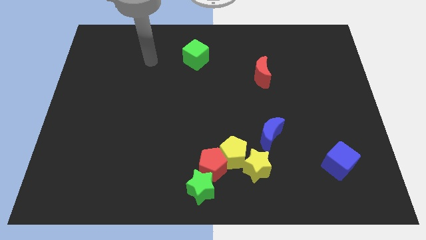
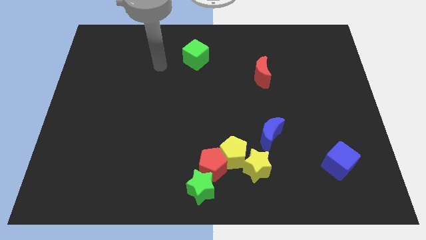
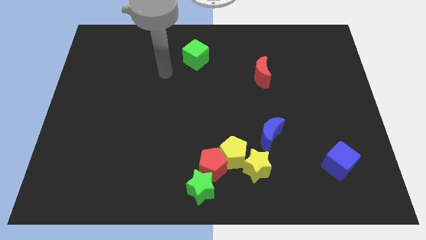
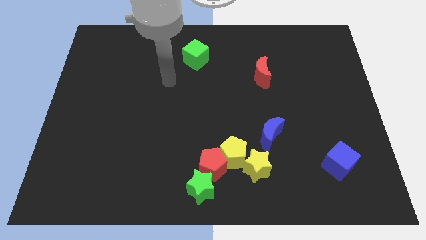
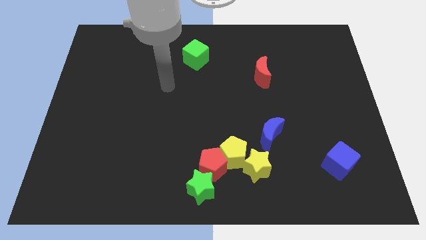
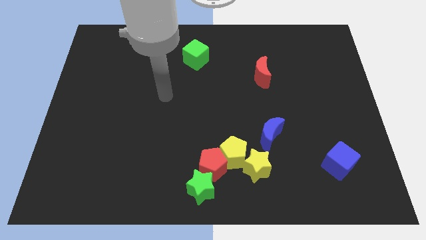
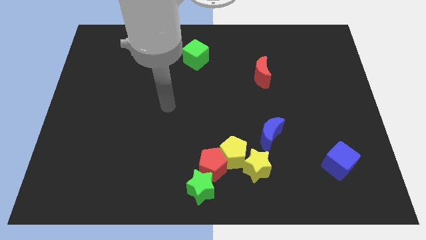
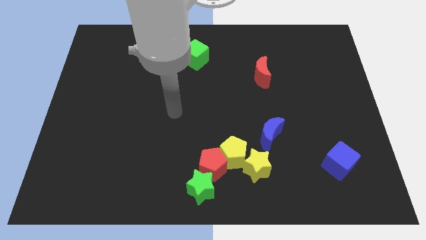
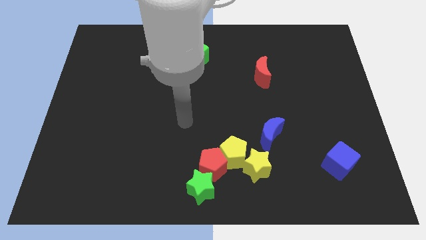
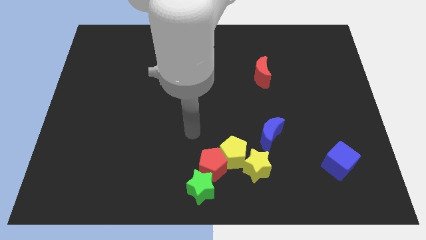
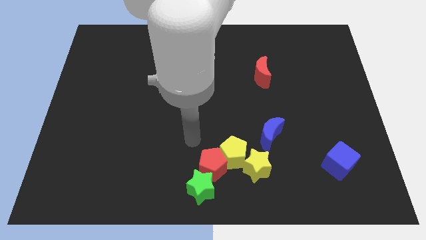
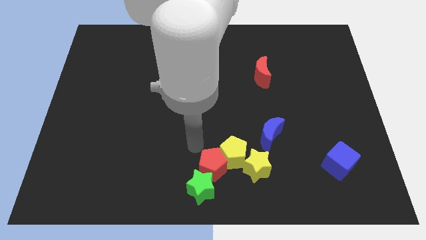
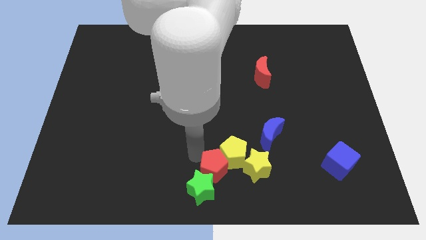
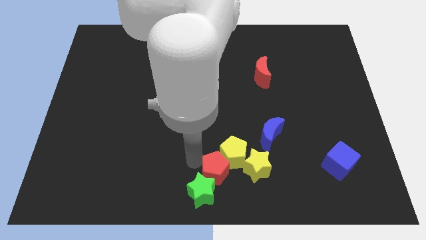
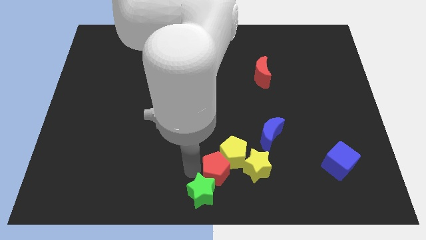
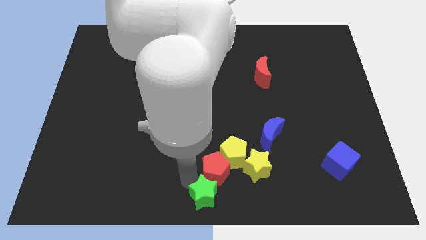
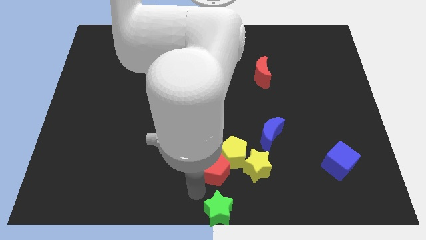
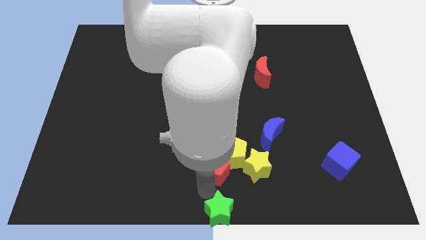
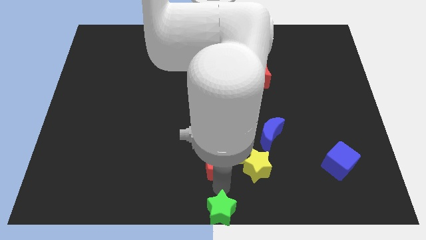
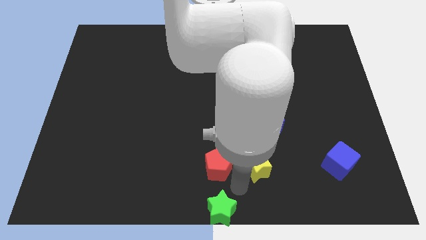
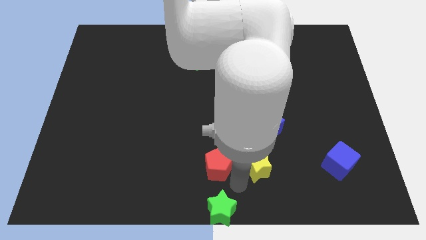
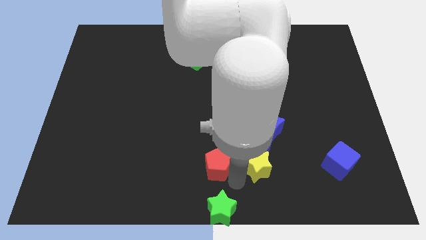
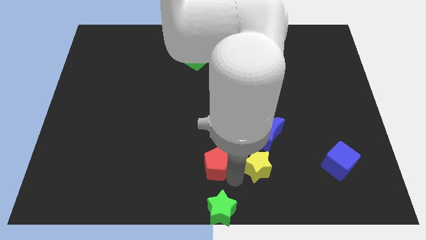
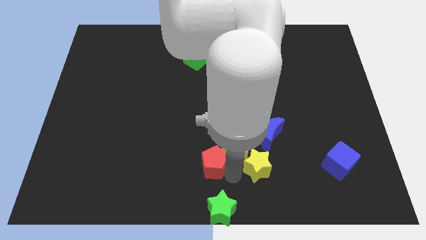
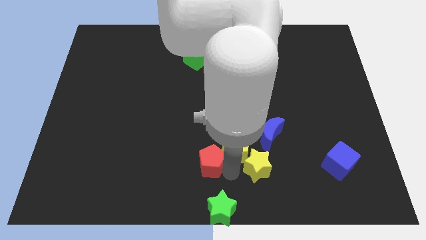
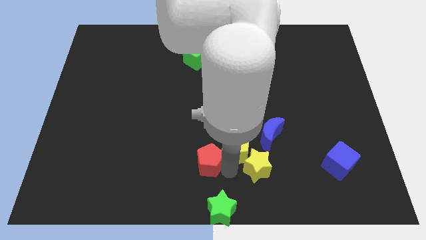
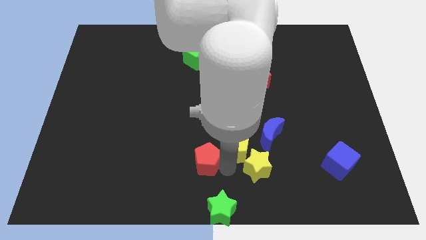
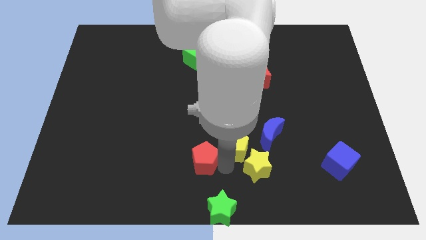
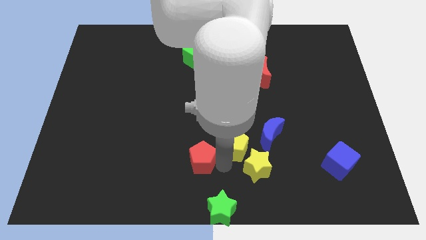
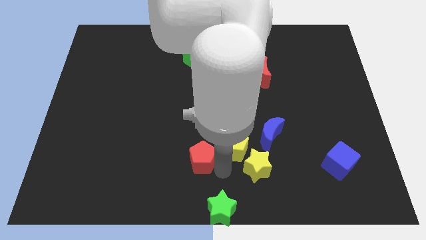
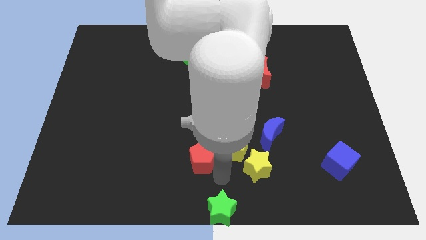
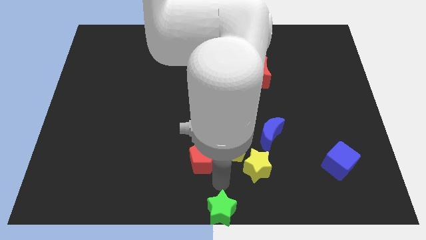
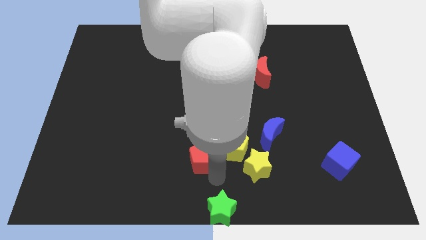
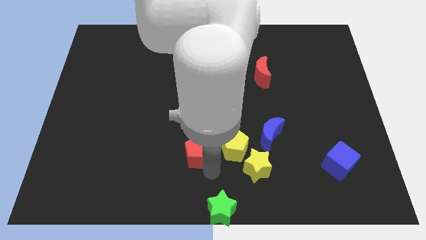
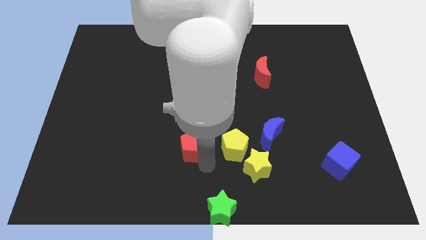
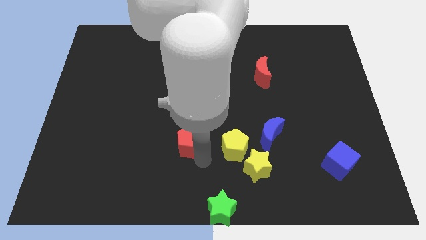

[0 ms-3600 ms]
slightly push the red pentagon up and to the left

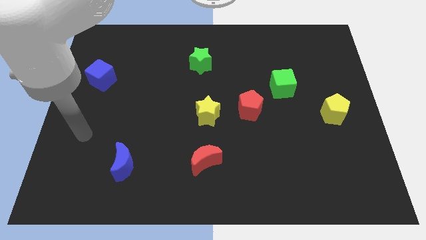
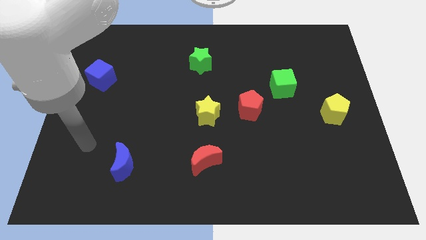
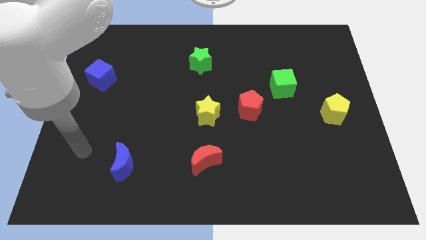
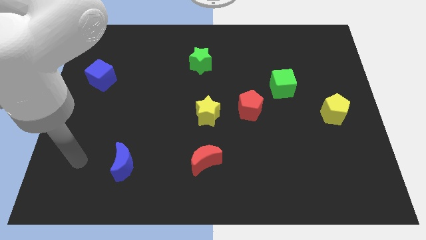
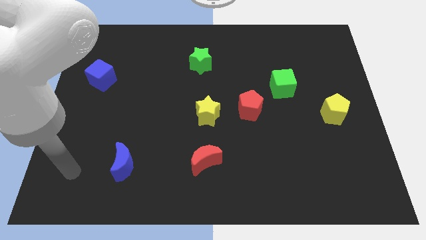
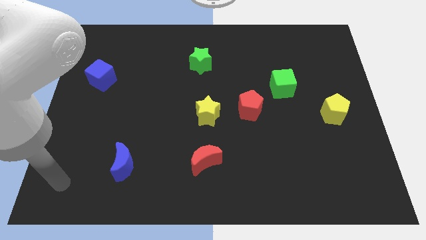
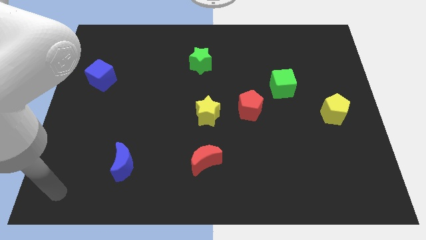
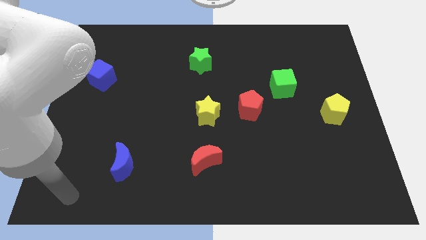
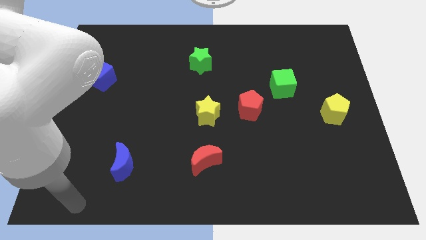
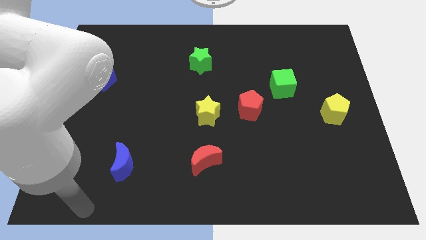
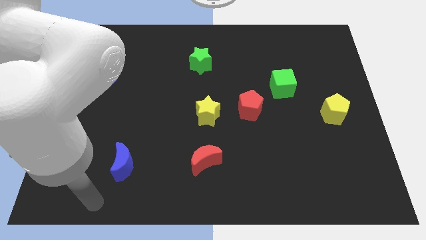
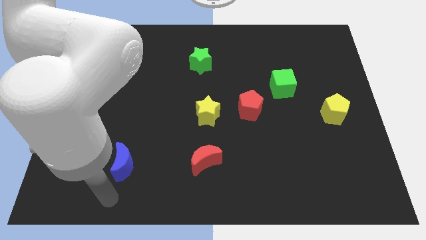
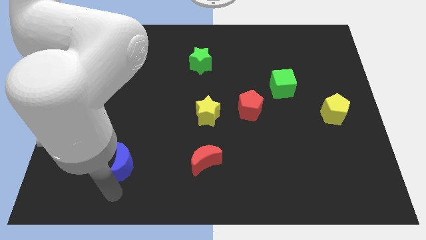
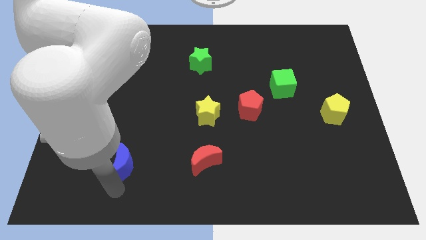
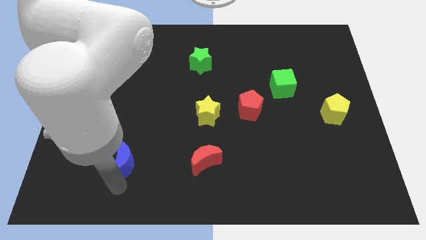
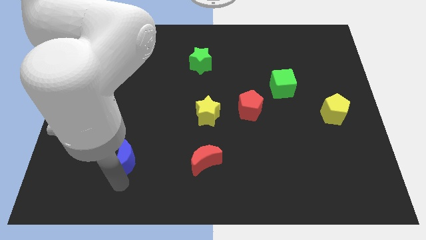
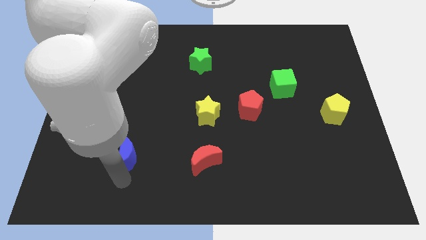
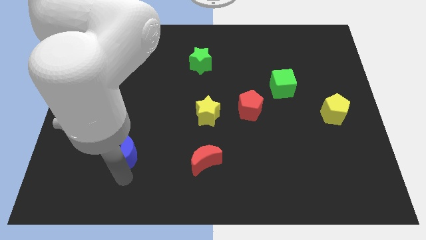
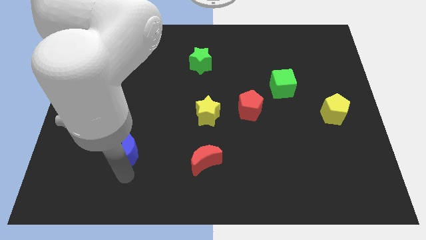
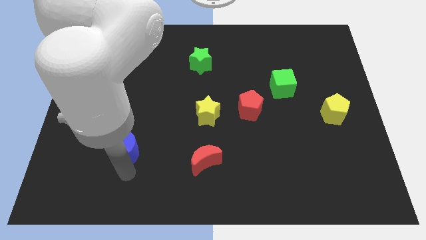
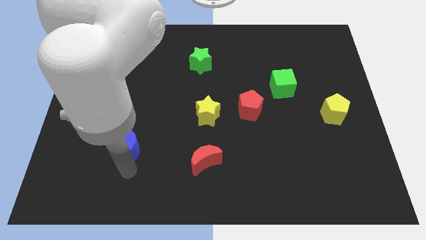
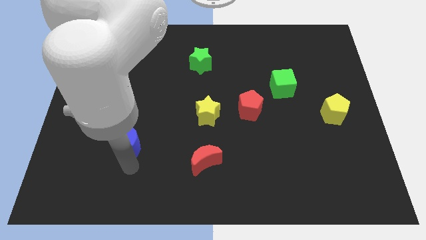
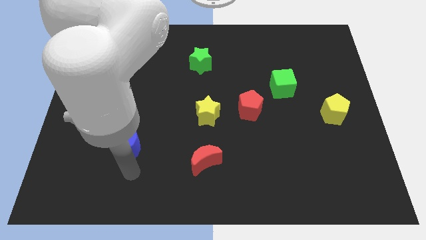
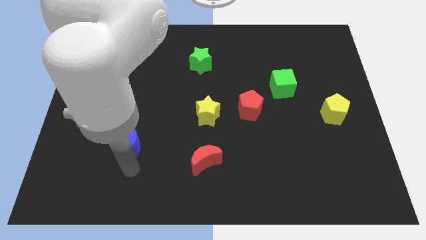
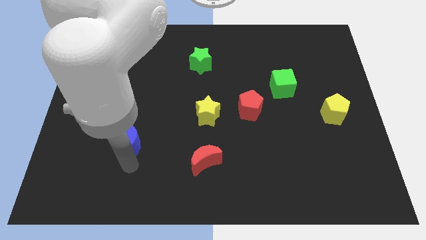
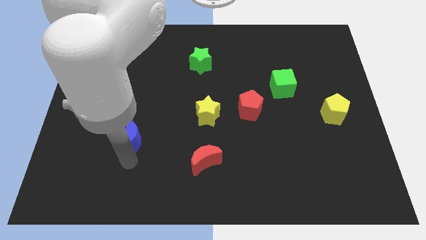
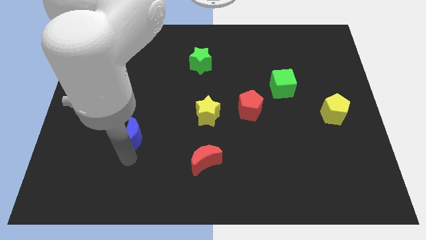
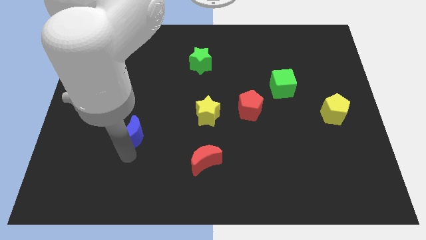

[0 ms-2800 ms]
slide the blue moon a little upwards

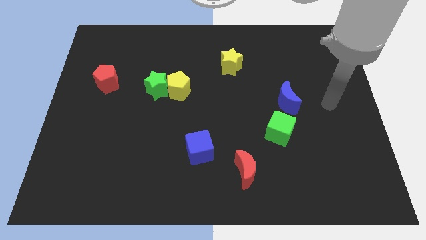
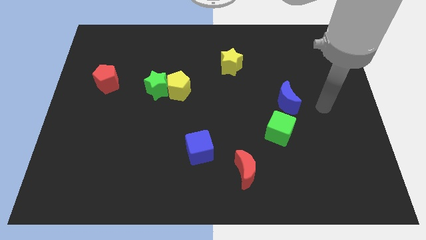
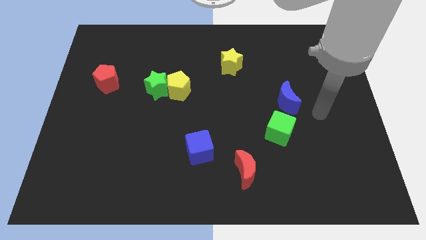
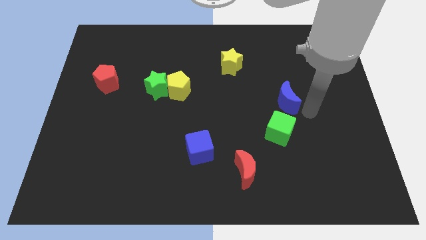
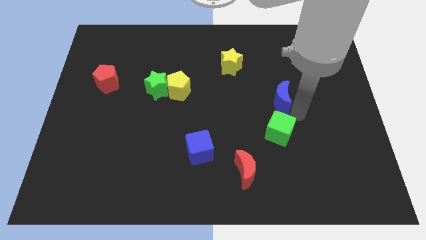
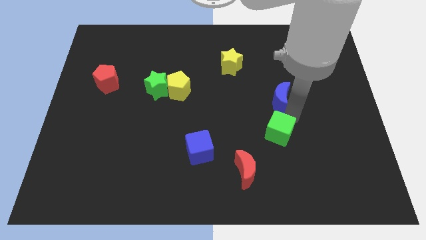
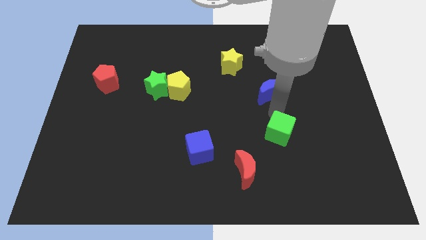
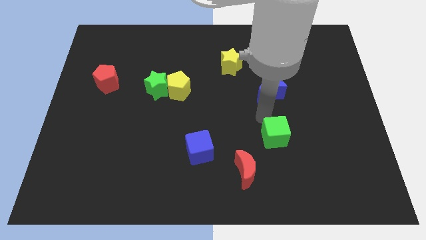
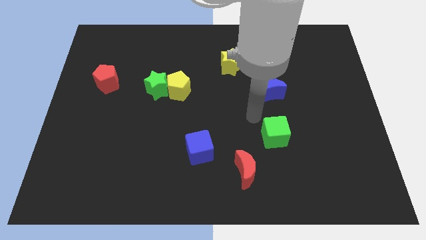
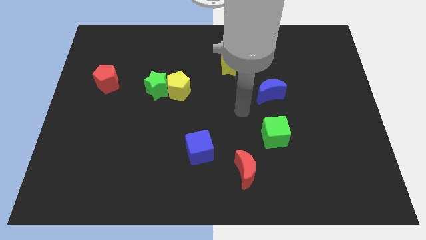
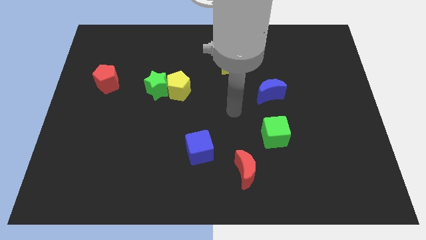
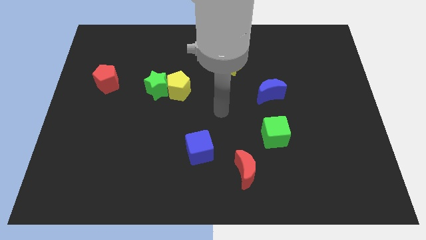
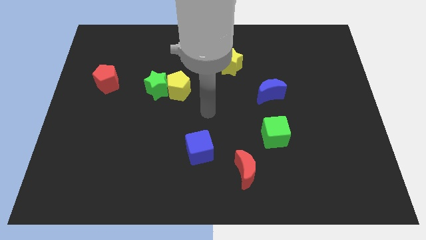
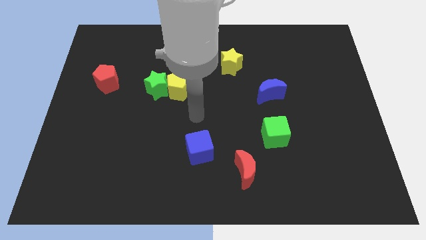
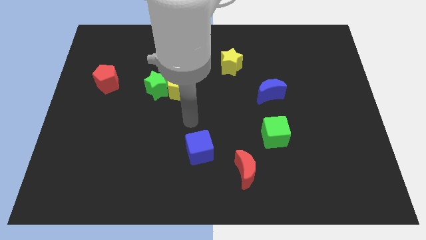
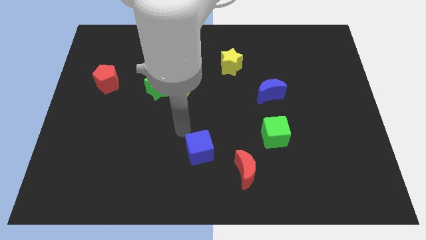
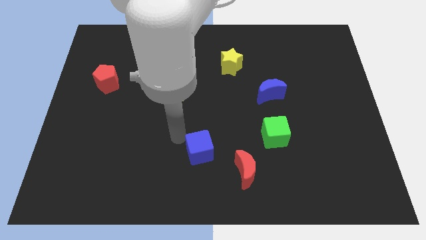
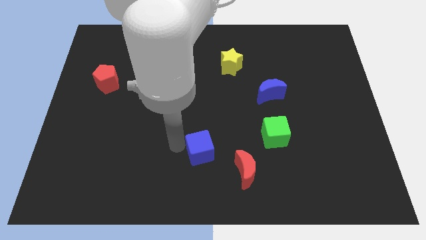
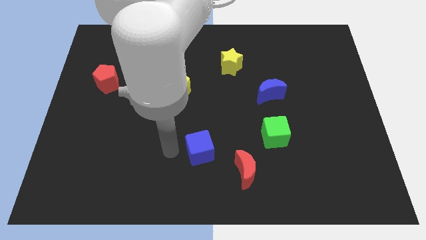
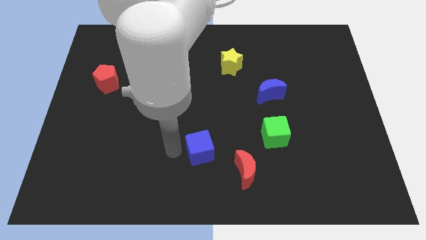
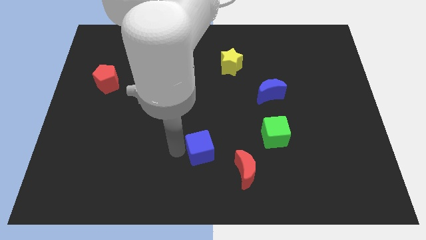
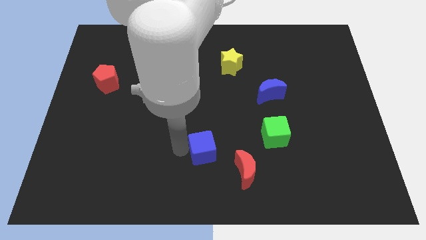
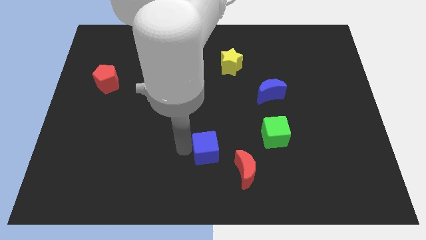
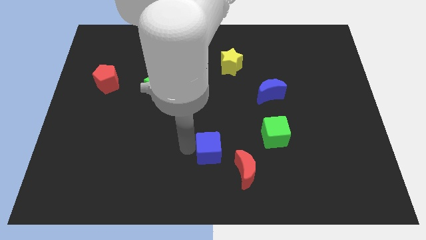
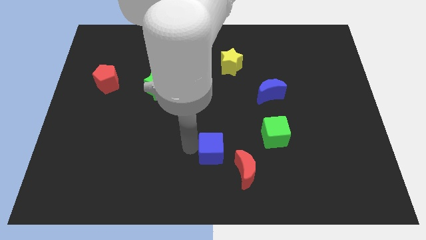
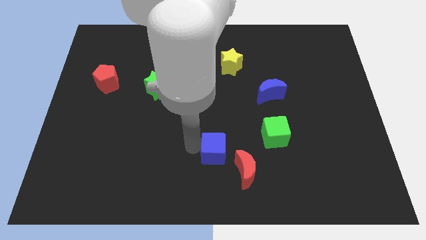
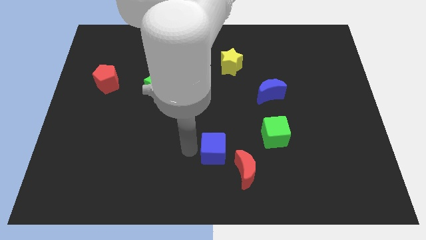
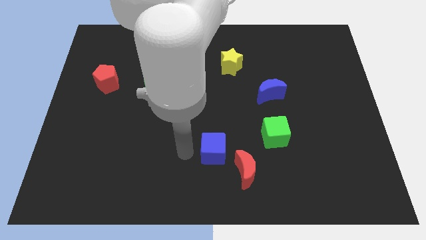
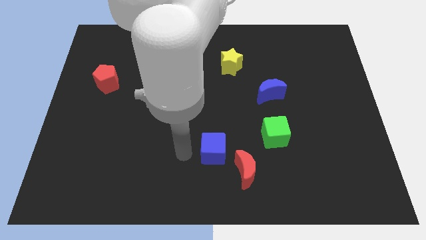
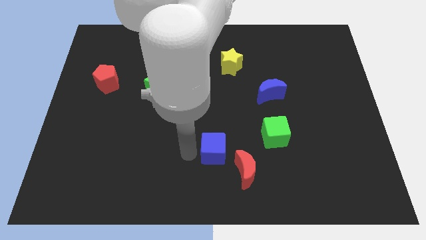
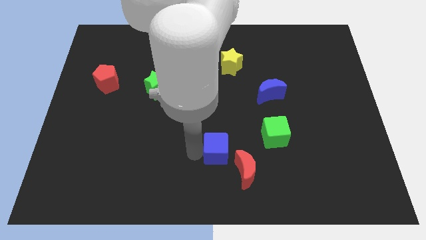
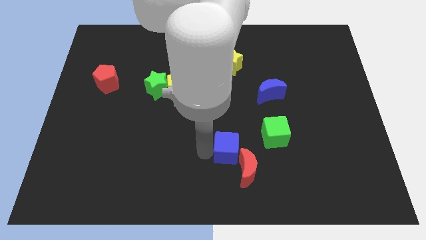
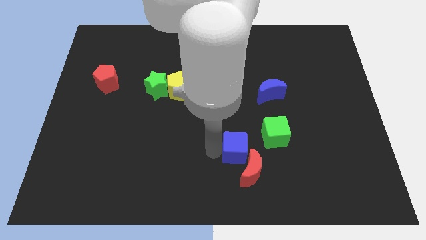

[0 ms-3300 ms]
push the blue cube slightly right
